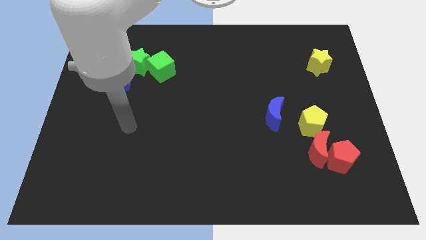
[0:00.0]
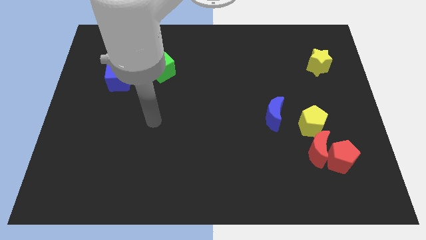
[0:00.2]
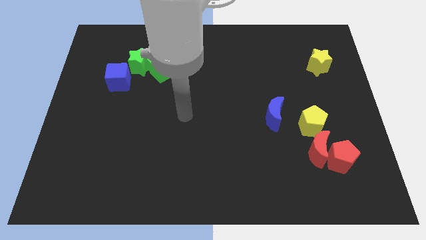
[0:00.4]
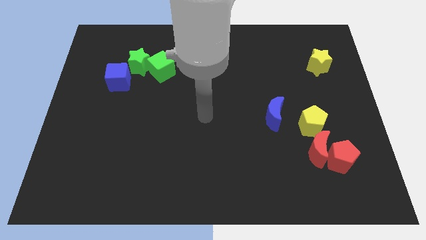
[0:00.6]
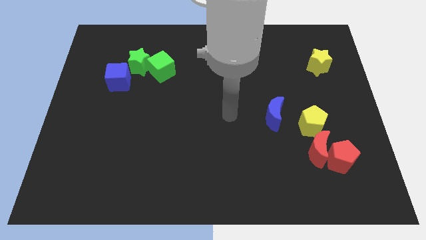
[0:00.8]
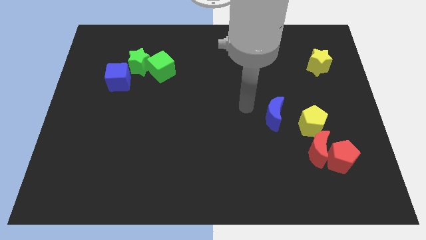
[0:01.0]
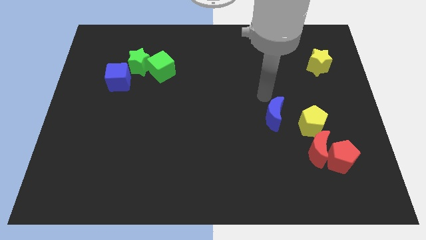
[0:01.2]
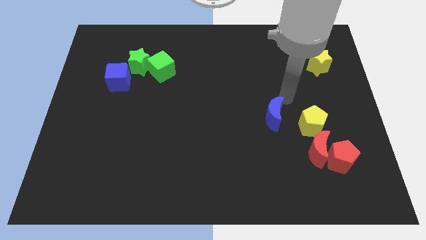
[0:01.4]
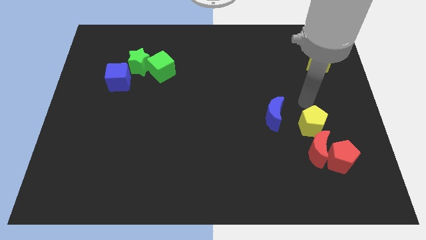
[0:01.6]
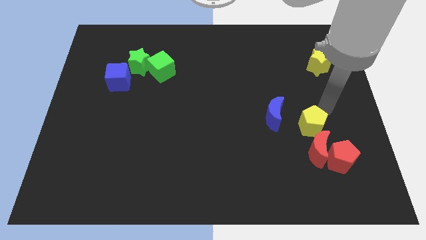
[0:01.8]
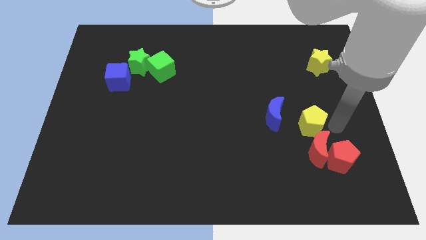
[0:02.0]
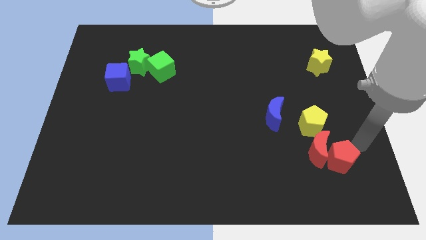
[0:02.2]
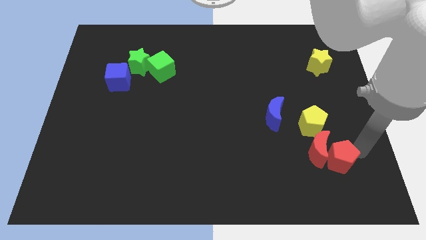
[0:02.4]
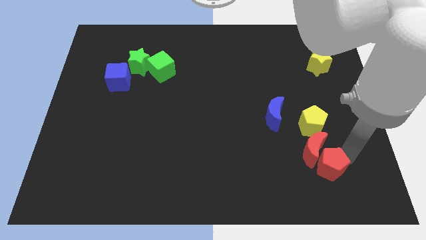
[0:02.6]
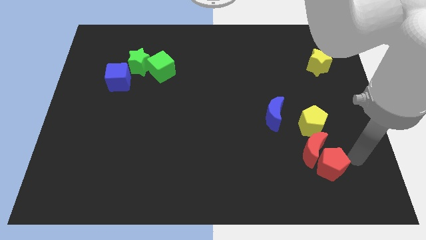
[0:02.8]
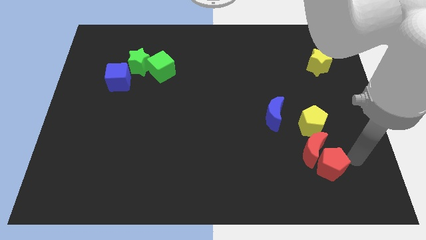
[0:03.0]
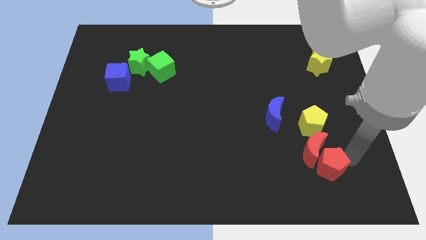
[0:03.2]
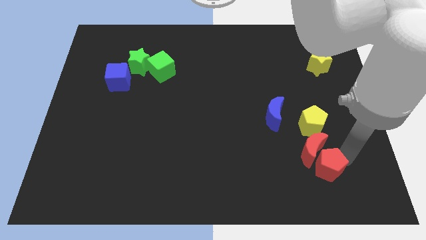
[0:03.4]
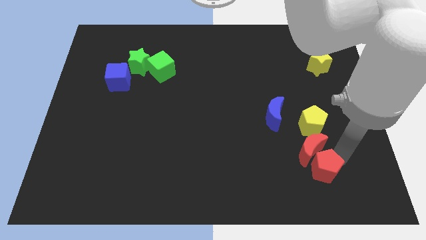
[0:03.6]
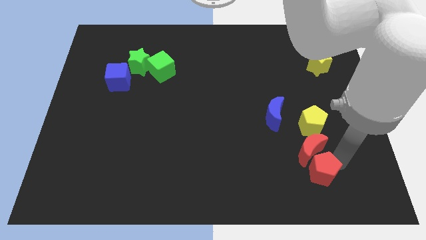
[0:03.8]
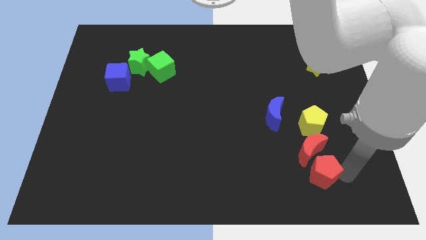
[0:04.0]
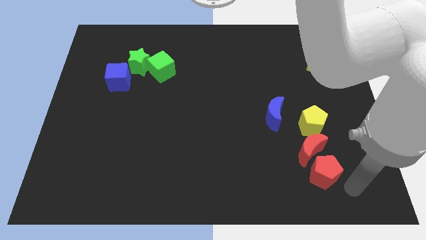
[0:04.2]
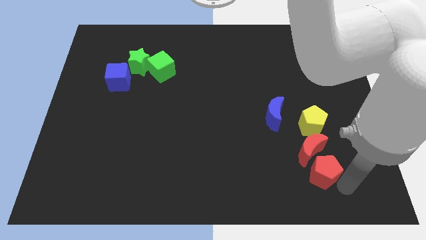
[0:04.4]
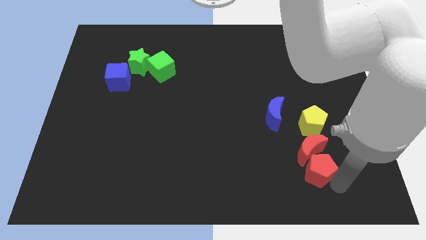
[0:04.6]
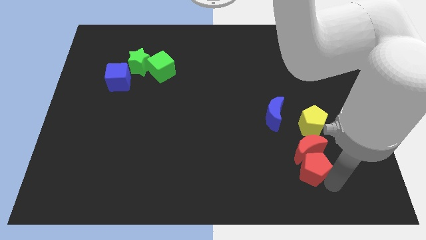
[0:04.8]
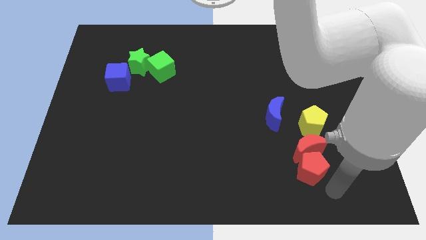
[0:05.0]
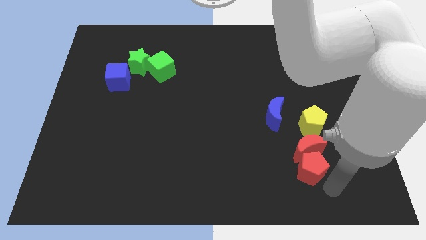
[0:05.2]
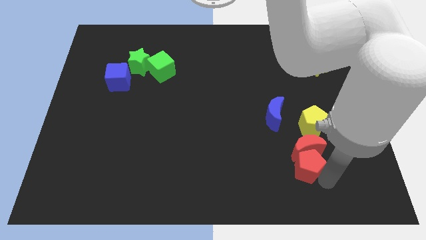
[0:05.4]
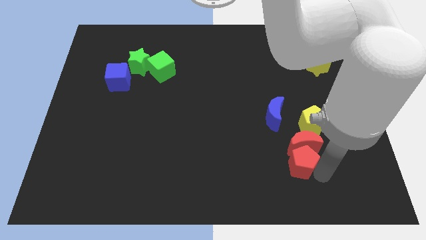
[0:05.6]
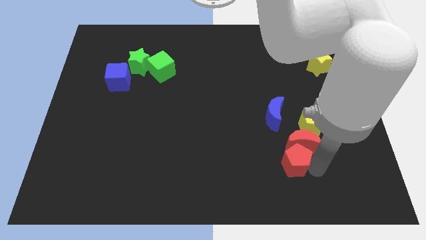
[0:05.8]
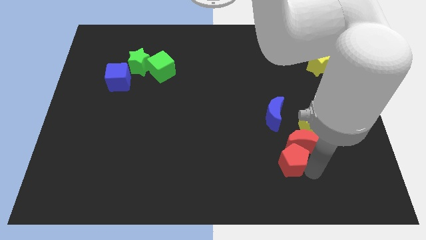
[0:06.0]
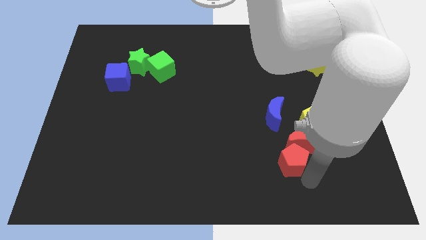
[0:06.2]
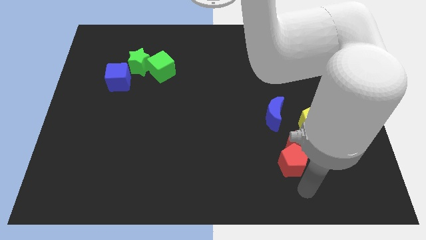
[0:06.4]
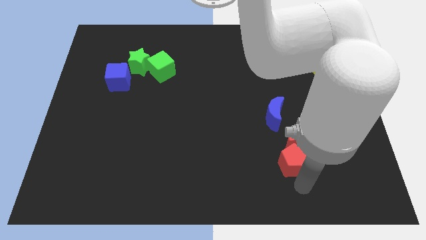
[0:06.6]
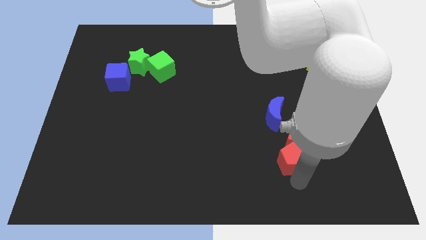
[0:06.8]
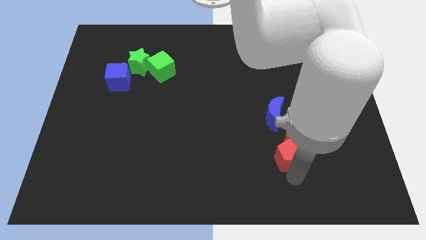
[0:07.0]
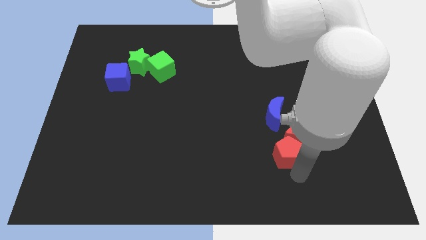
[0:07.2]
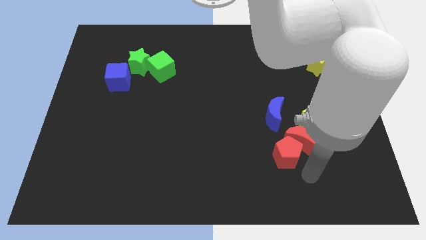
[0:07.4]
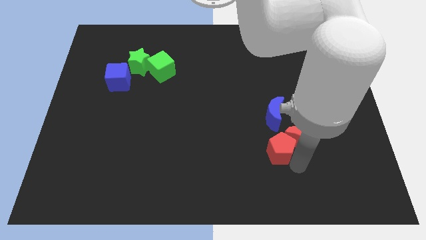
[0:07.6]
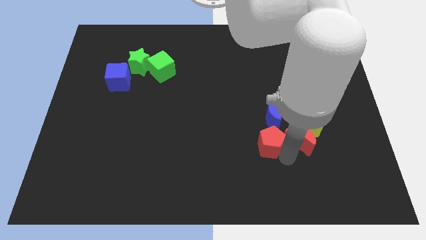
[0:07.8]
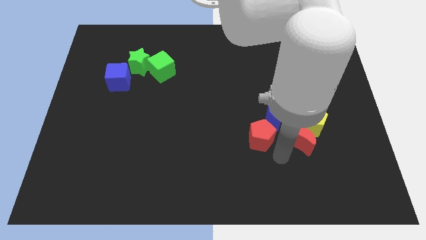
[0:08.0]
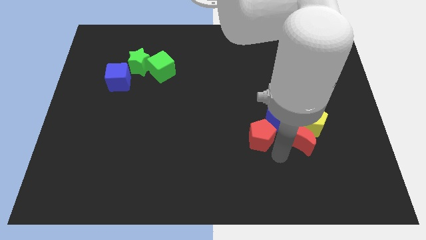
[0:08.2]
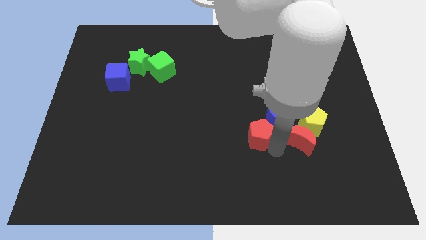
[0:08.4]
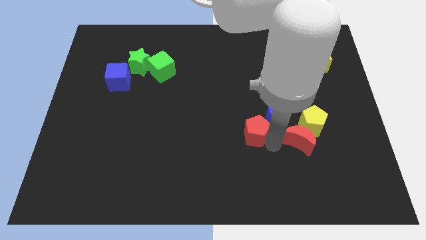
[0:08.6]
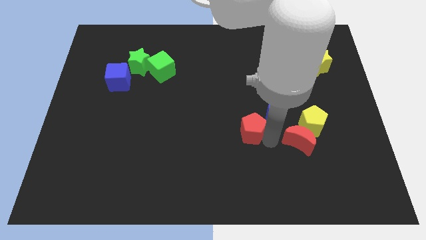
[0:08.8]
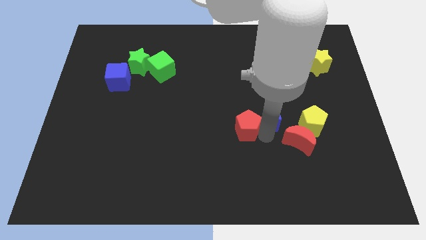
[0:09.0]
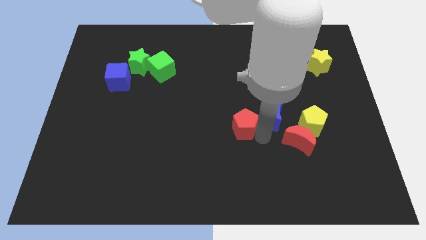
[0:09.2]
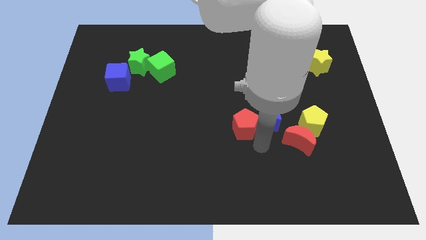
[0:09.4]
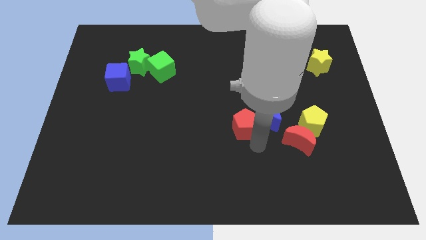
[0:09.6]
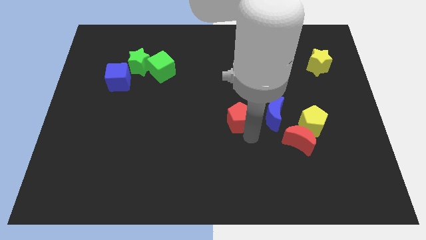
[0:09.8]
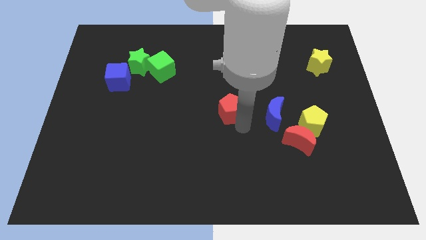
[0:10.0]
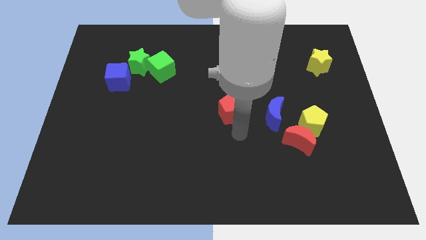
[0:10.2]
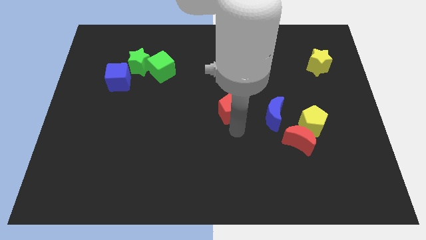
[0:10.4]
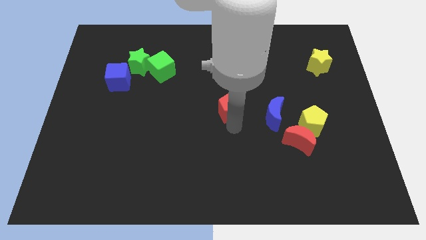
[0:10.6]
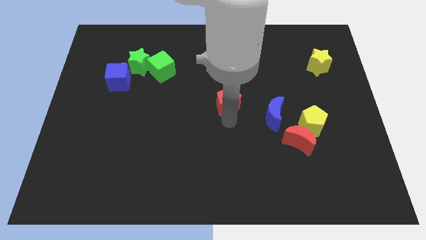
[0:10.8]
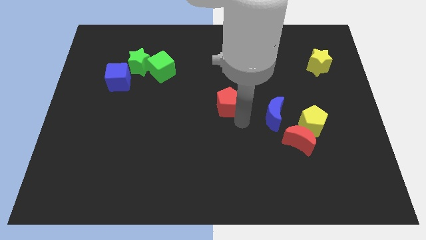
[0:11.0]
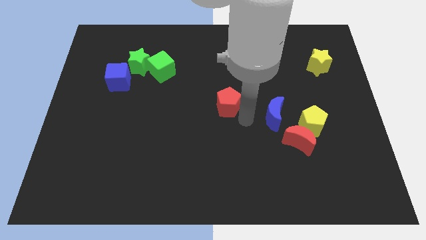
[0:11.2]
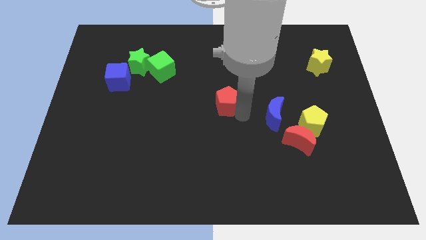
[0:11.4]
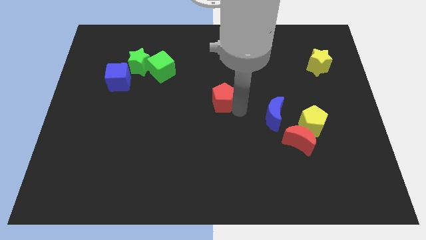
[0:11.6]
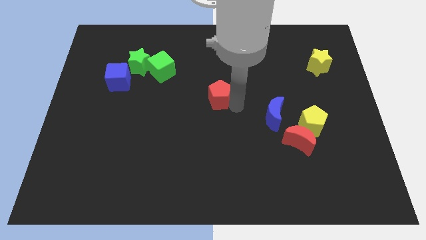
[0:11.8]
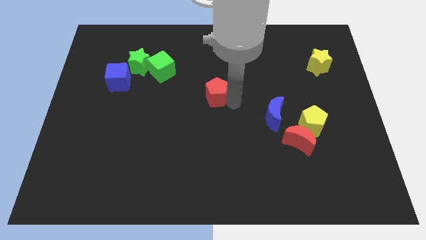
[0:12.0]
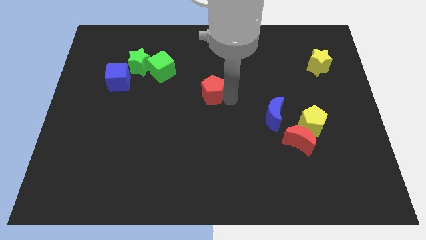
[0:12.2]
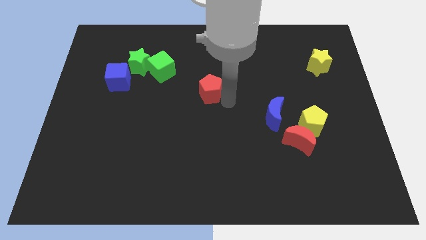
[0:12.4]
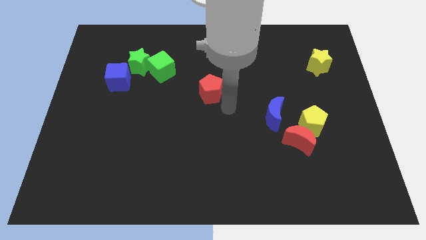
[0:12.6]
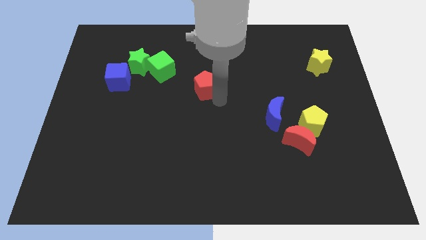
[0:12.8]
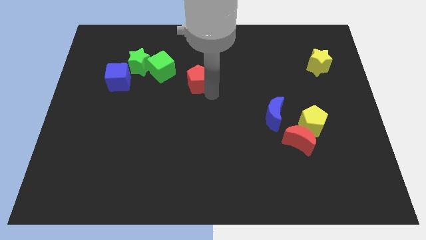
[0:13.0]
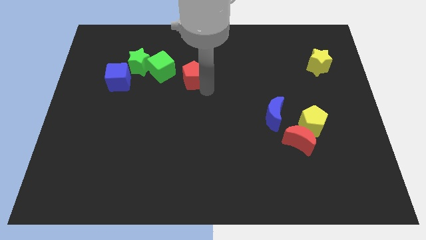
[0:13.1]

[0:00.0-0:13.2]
slide the red pentagon right of the green star

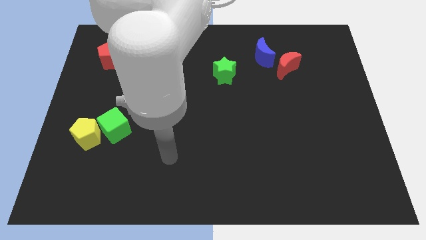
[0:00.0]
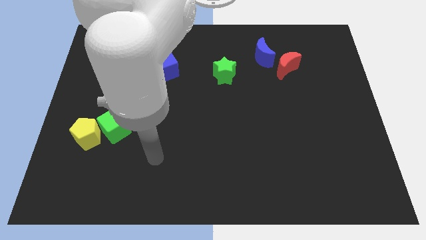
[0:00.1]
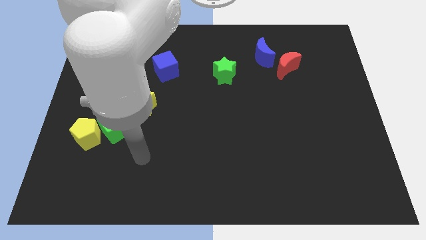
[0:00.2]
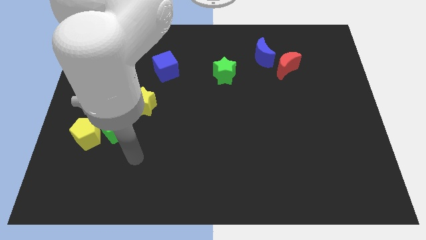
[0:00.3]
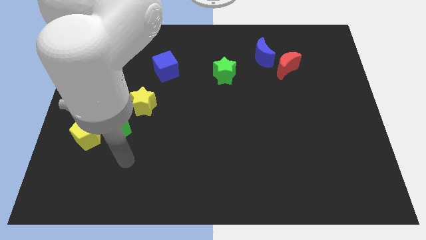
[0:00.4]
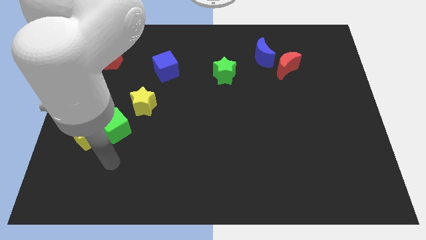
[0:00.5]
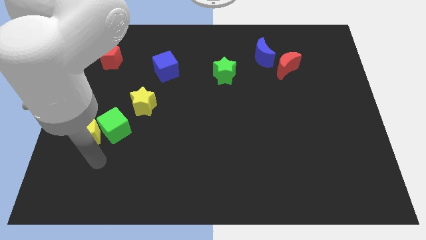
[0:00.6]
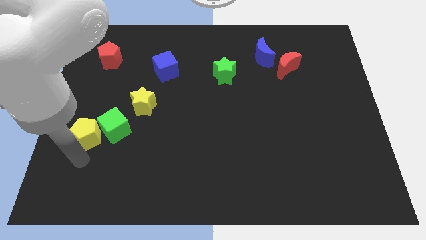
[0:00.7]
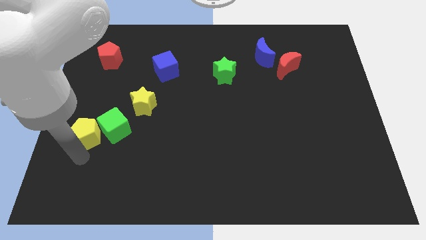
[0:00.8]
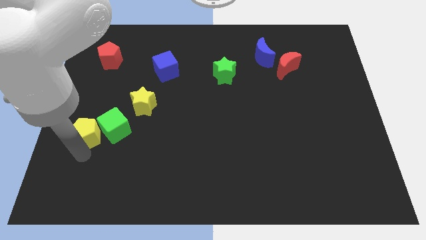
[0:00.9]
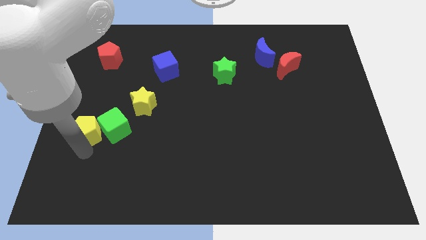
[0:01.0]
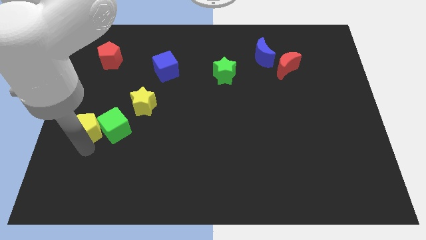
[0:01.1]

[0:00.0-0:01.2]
slide the yellow pentagon diagonally up and to the left of the green cube
